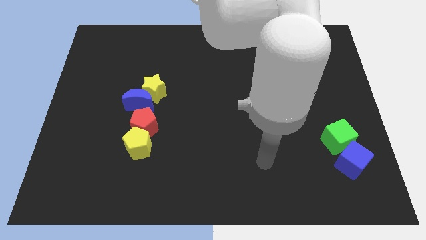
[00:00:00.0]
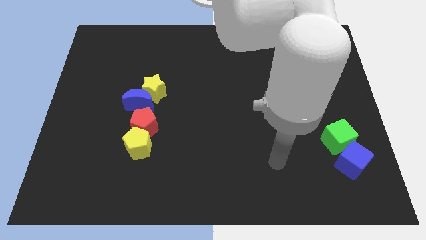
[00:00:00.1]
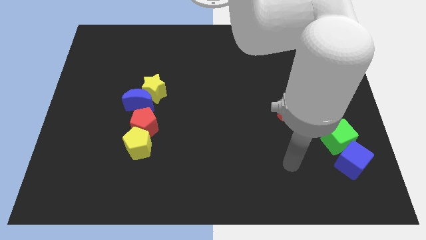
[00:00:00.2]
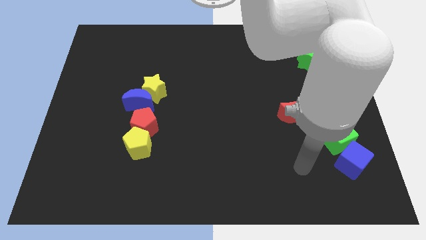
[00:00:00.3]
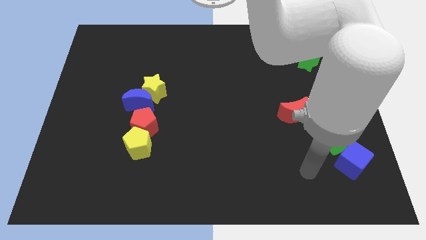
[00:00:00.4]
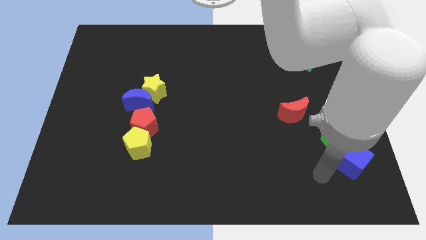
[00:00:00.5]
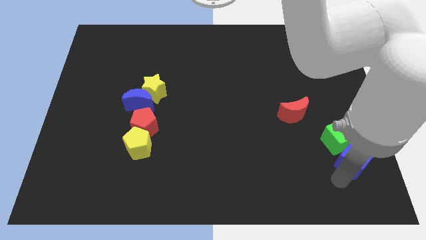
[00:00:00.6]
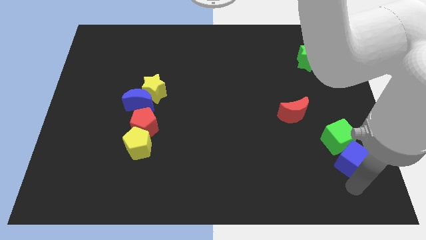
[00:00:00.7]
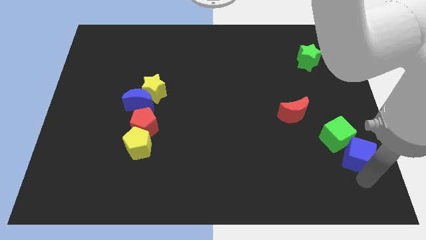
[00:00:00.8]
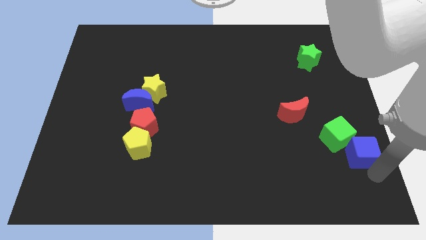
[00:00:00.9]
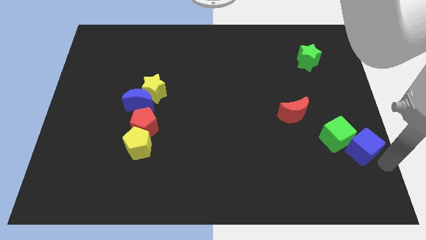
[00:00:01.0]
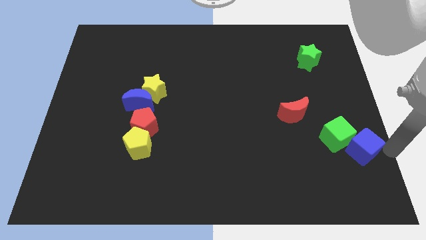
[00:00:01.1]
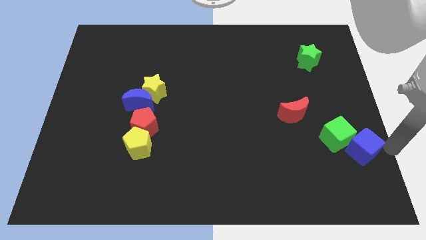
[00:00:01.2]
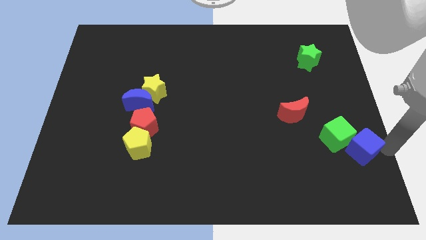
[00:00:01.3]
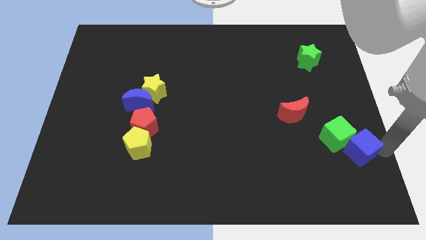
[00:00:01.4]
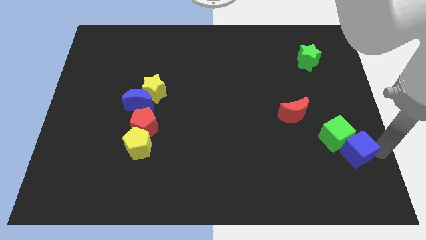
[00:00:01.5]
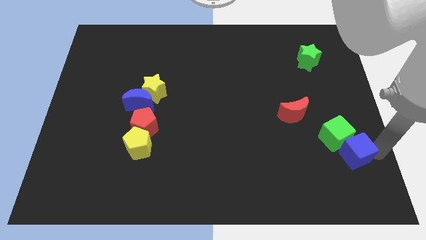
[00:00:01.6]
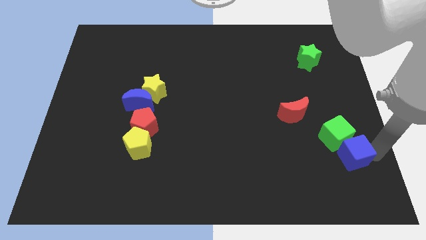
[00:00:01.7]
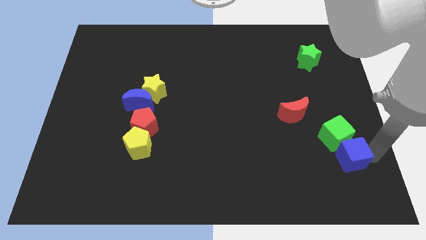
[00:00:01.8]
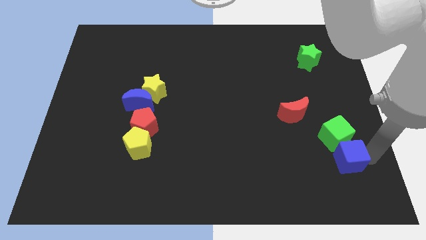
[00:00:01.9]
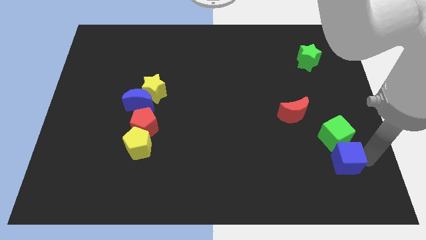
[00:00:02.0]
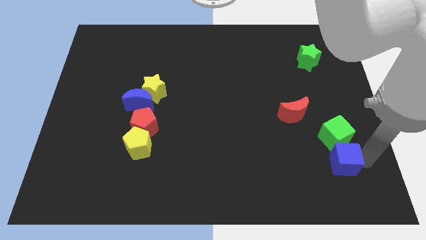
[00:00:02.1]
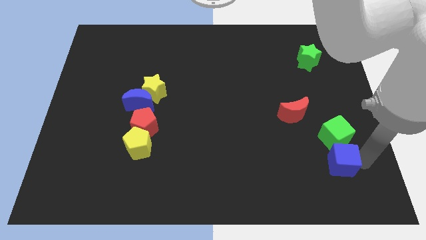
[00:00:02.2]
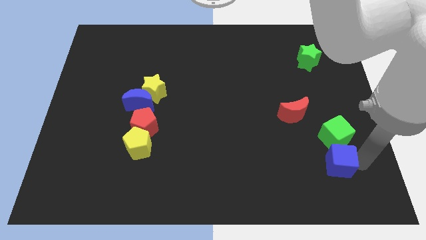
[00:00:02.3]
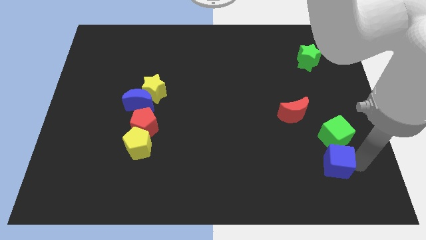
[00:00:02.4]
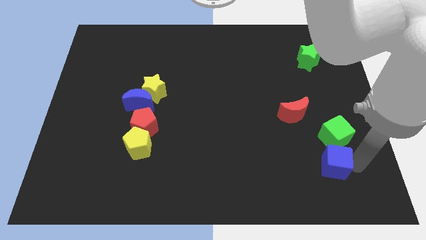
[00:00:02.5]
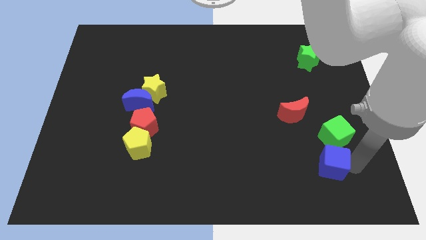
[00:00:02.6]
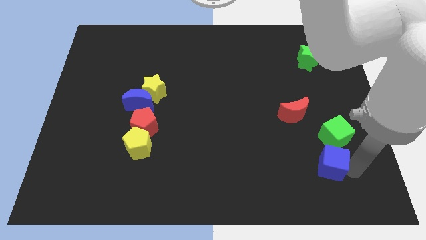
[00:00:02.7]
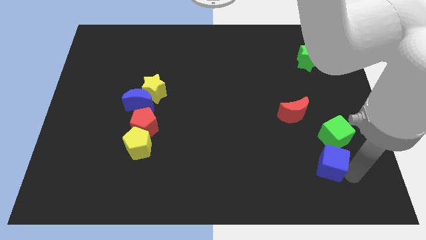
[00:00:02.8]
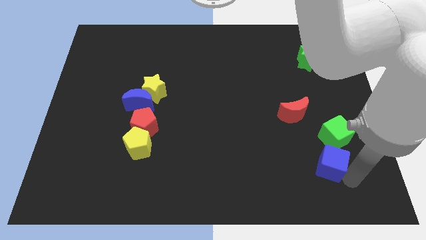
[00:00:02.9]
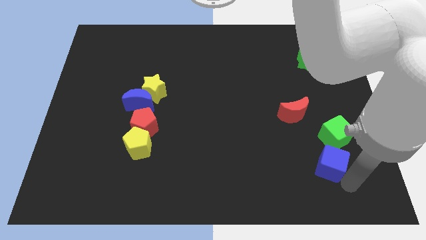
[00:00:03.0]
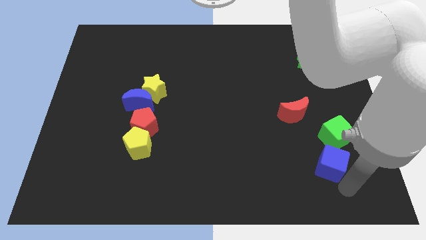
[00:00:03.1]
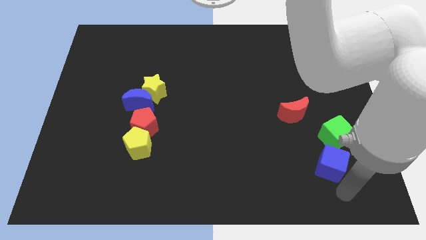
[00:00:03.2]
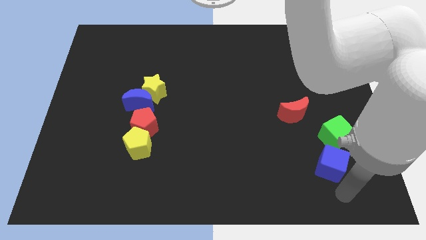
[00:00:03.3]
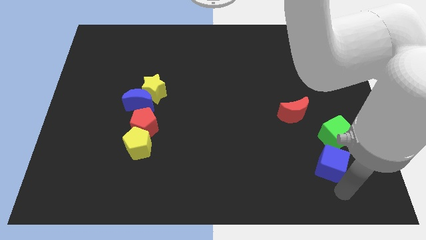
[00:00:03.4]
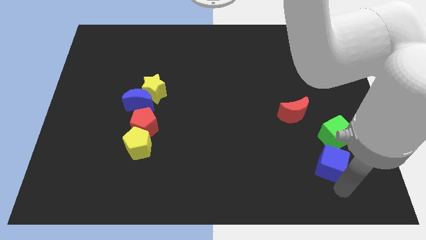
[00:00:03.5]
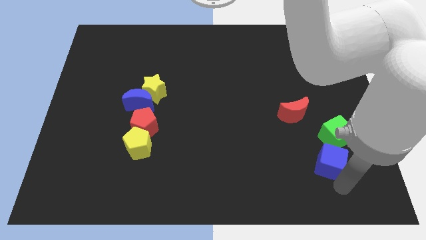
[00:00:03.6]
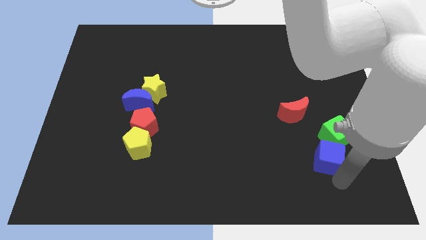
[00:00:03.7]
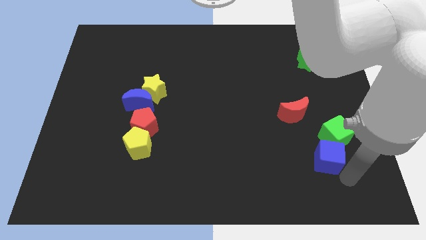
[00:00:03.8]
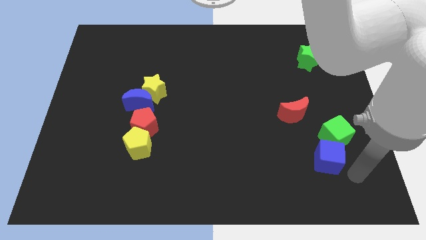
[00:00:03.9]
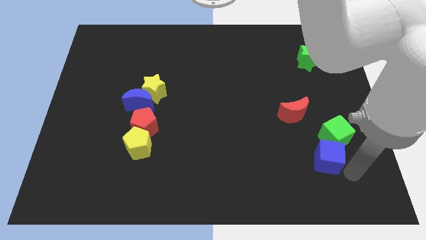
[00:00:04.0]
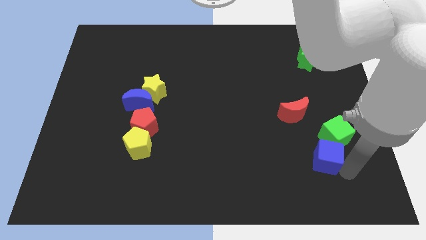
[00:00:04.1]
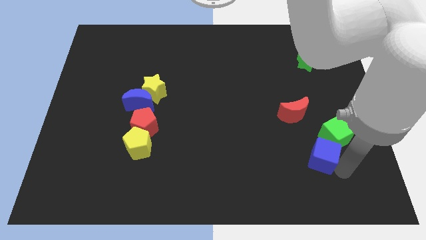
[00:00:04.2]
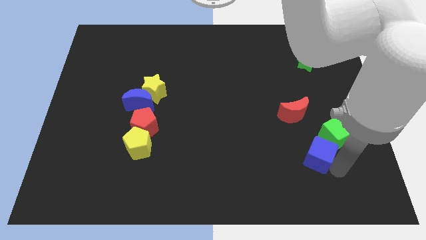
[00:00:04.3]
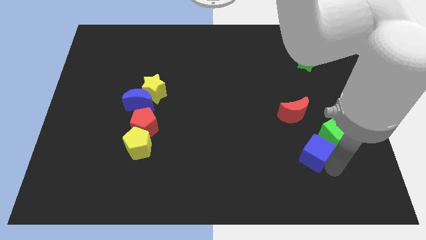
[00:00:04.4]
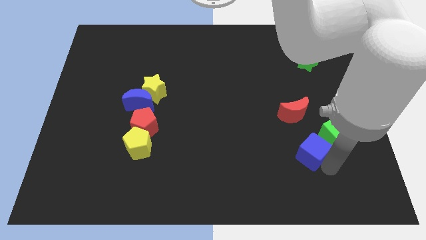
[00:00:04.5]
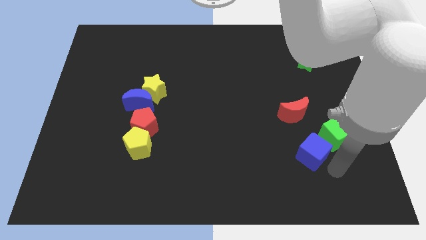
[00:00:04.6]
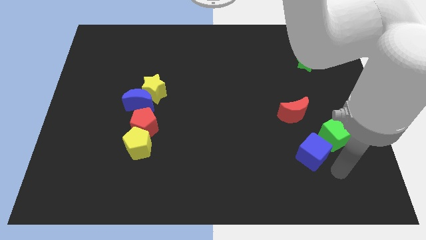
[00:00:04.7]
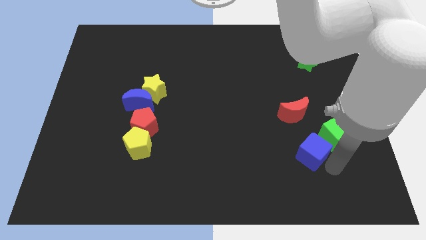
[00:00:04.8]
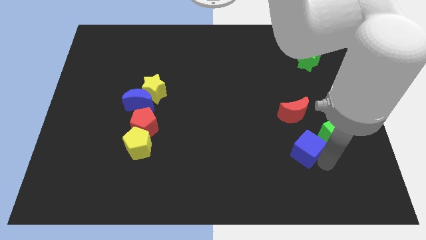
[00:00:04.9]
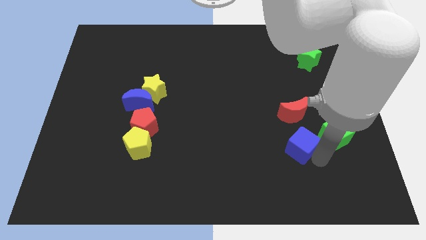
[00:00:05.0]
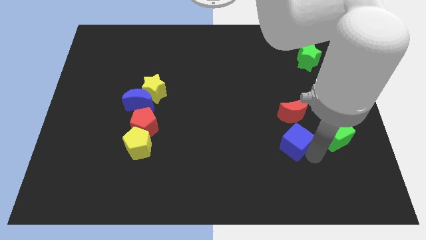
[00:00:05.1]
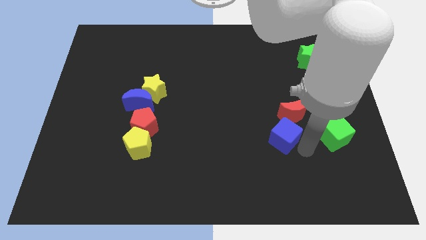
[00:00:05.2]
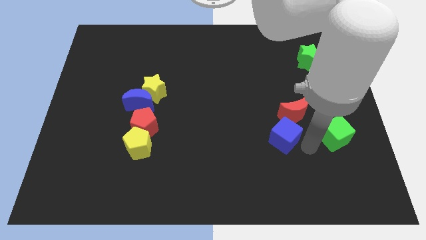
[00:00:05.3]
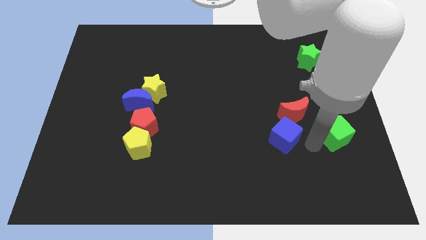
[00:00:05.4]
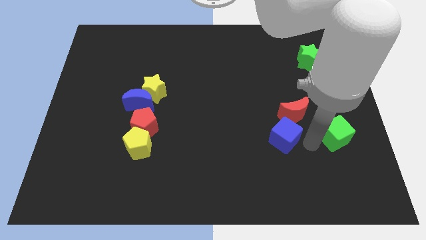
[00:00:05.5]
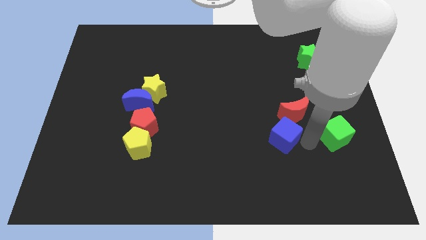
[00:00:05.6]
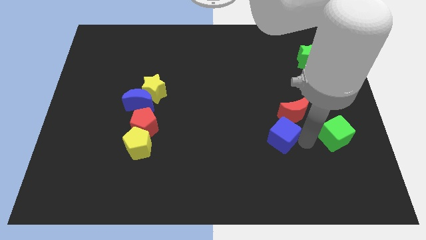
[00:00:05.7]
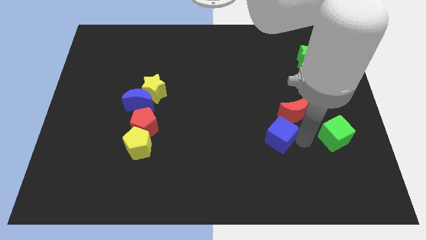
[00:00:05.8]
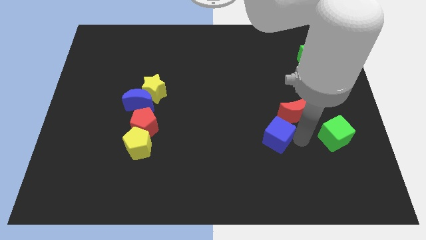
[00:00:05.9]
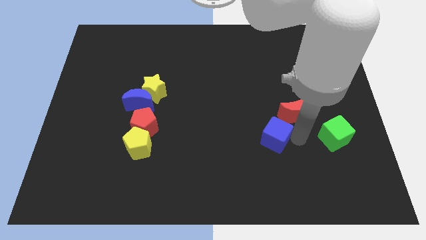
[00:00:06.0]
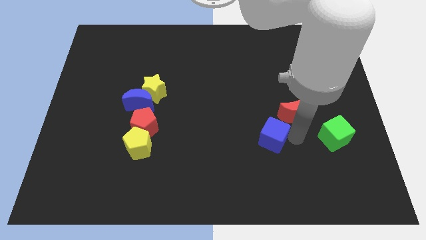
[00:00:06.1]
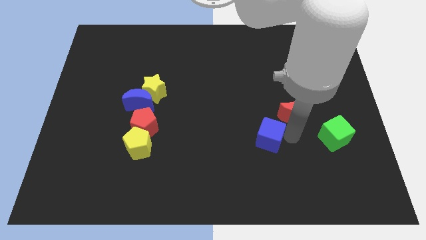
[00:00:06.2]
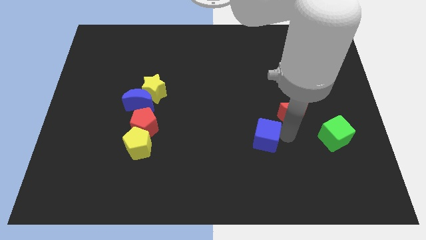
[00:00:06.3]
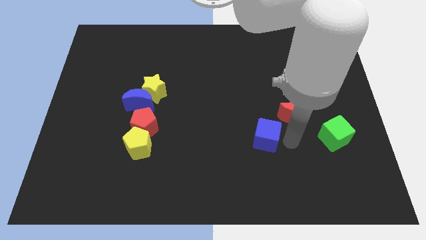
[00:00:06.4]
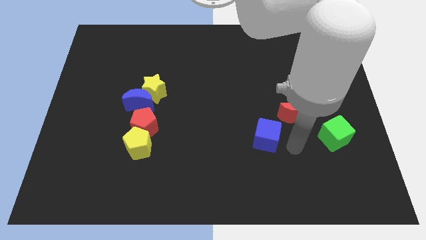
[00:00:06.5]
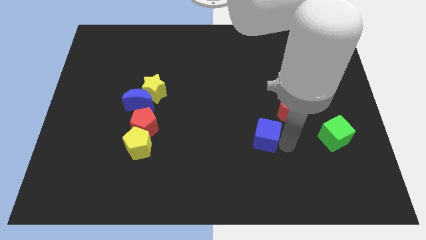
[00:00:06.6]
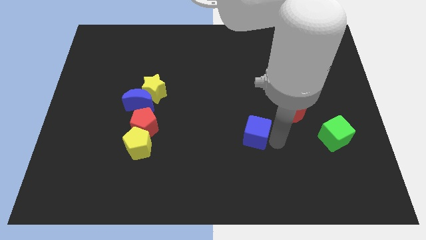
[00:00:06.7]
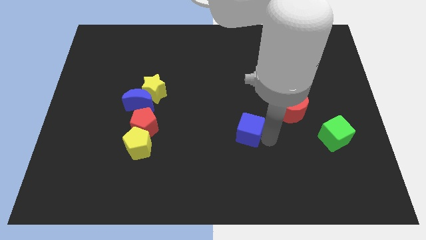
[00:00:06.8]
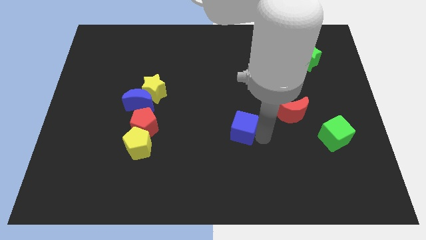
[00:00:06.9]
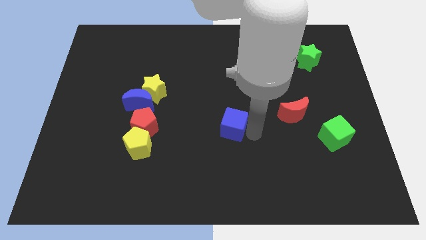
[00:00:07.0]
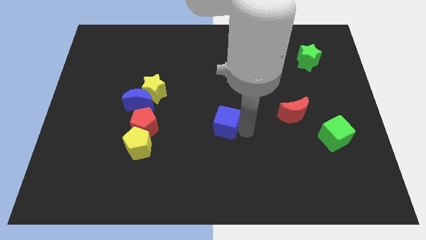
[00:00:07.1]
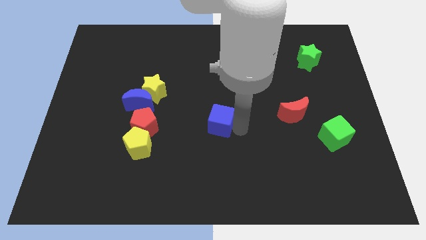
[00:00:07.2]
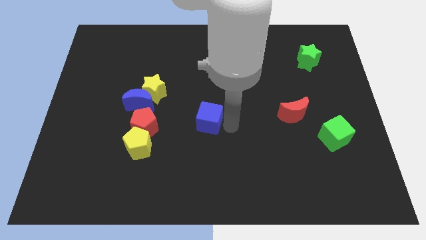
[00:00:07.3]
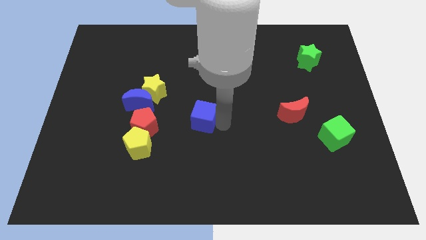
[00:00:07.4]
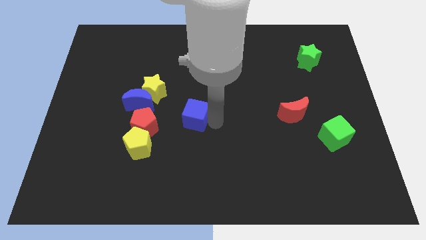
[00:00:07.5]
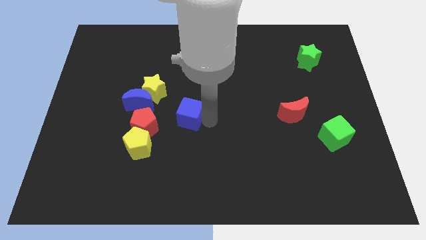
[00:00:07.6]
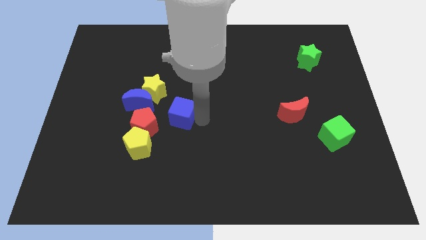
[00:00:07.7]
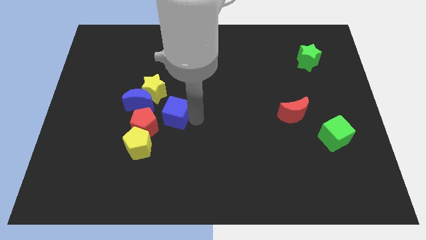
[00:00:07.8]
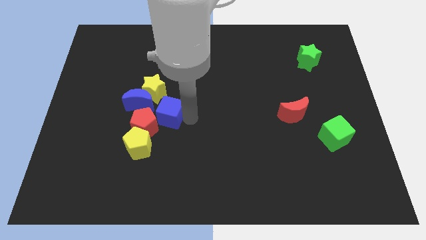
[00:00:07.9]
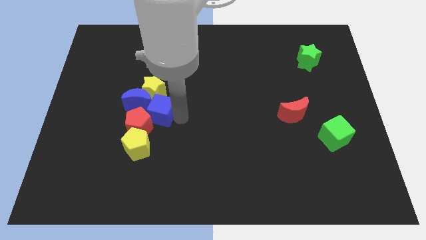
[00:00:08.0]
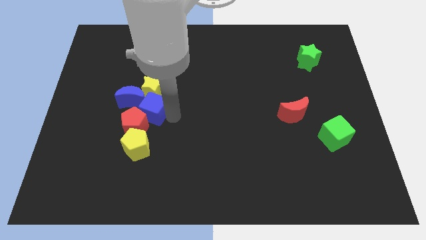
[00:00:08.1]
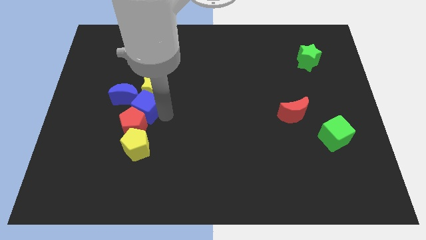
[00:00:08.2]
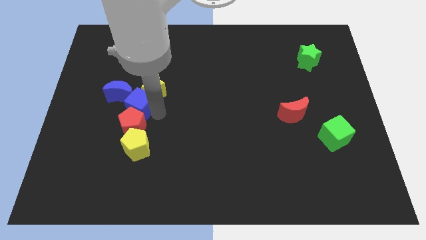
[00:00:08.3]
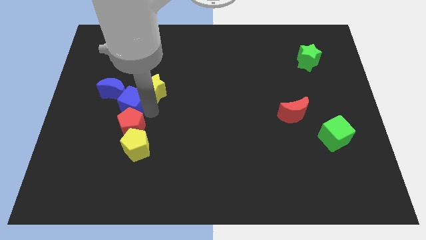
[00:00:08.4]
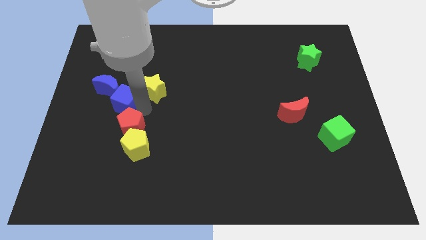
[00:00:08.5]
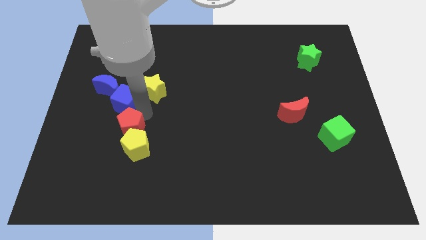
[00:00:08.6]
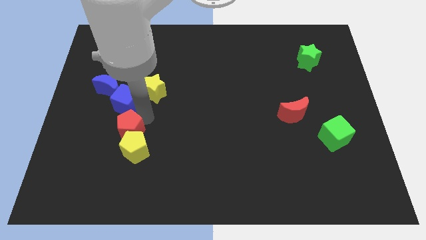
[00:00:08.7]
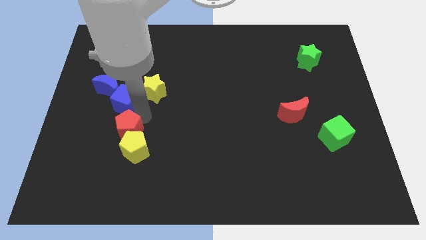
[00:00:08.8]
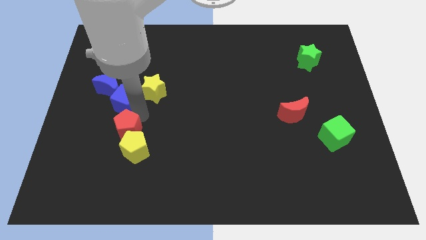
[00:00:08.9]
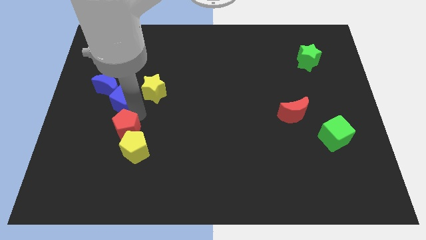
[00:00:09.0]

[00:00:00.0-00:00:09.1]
slide the blue cube next to the blue moon
